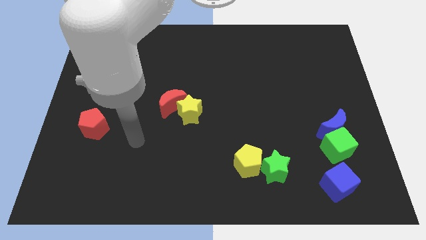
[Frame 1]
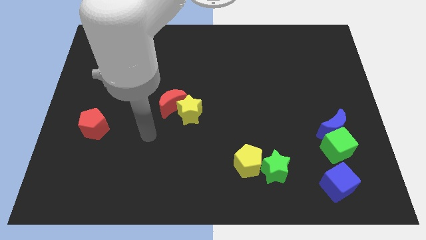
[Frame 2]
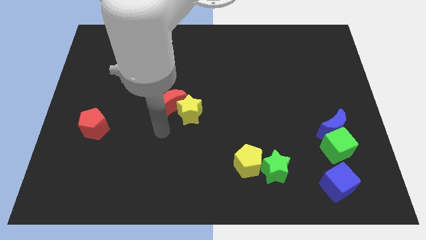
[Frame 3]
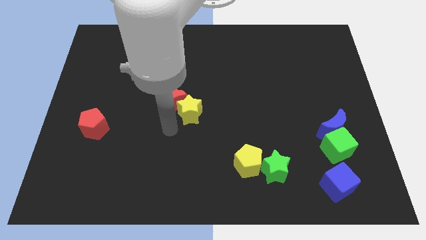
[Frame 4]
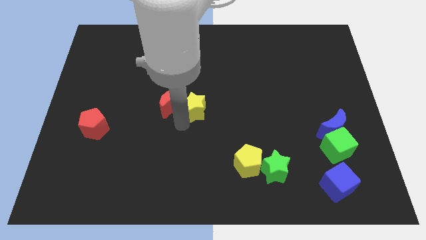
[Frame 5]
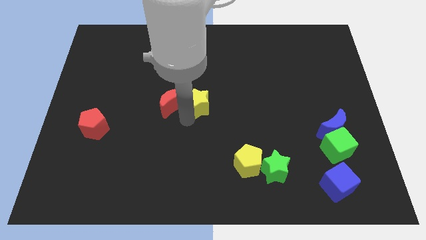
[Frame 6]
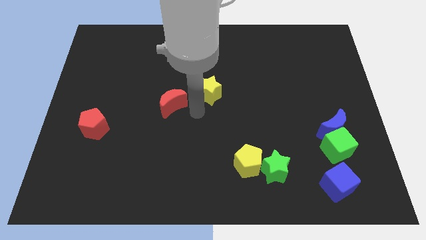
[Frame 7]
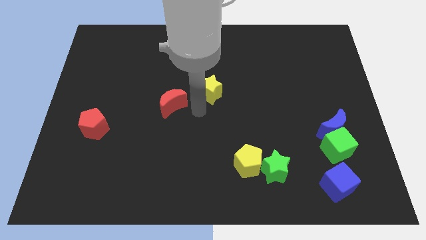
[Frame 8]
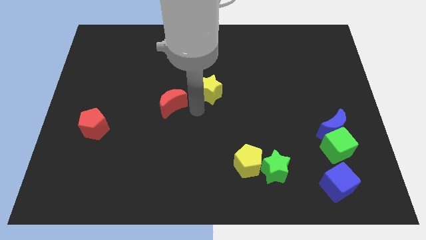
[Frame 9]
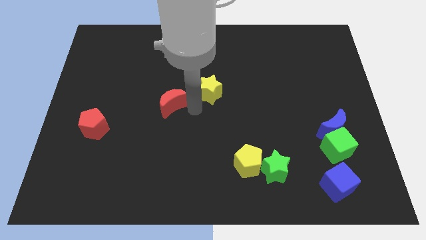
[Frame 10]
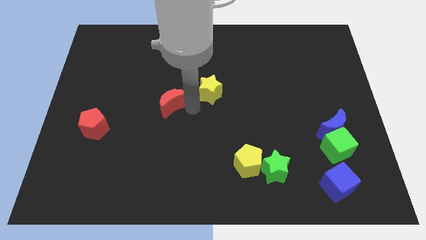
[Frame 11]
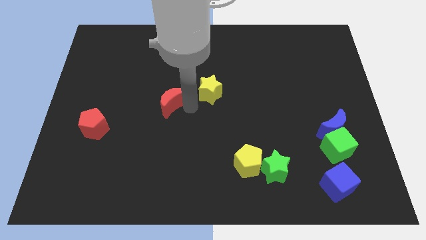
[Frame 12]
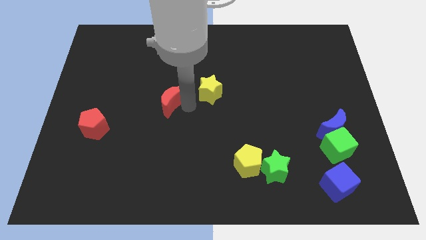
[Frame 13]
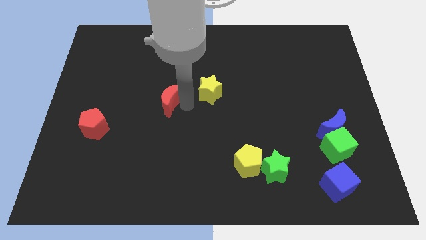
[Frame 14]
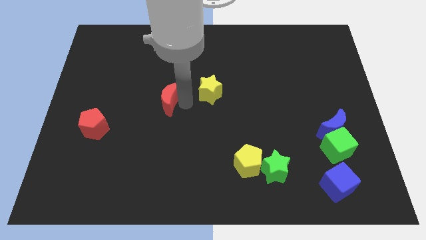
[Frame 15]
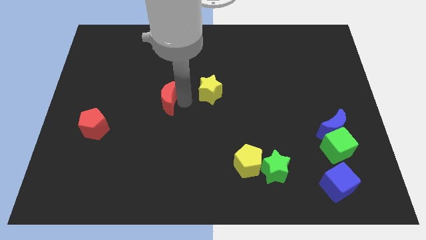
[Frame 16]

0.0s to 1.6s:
pull the red moon apart from the yellow star

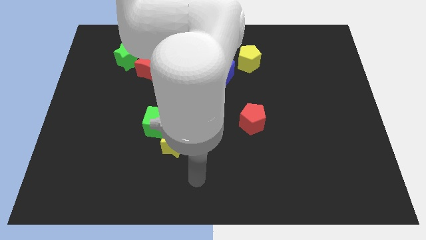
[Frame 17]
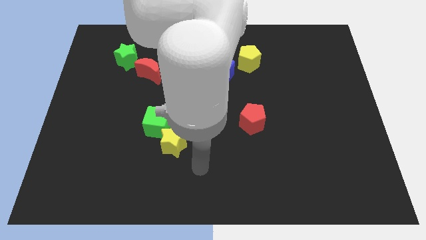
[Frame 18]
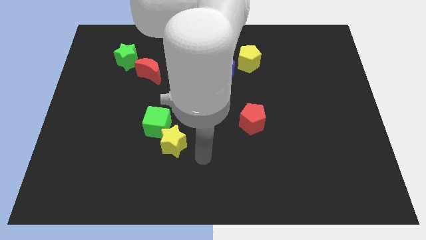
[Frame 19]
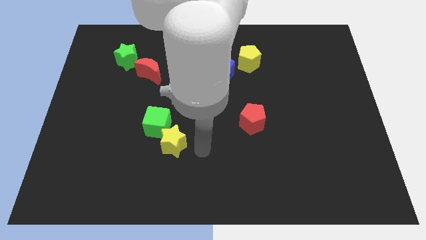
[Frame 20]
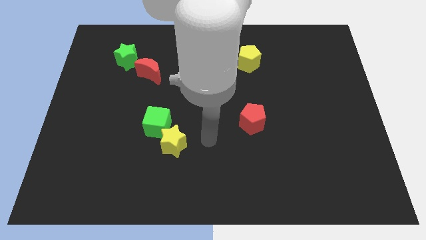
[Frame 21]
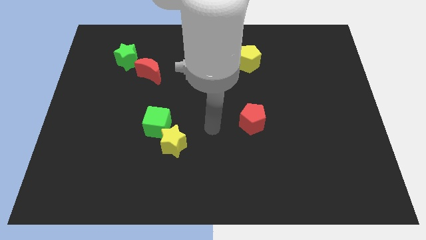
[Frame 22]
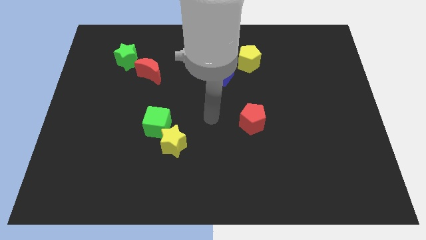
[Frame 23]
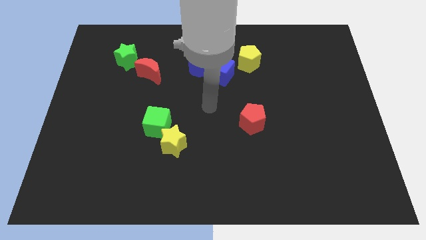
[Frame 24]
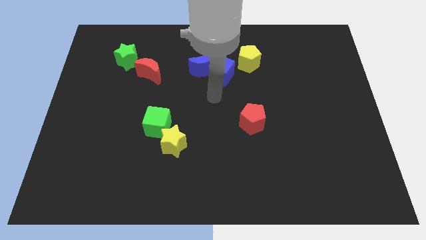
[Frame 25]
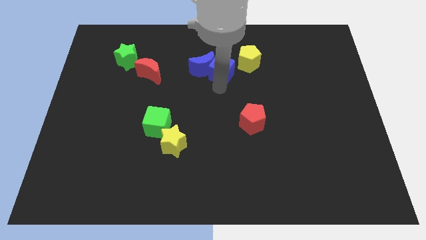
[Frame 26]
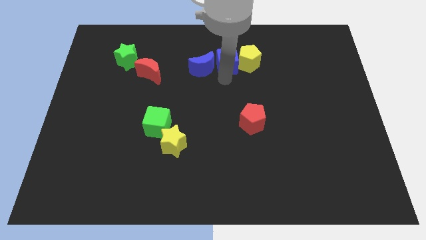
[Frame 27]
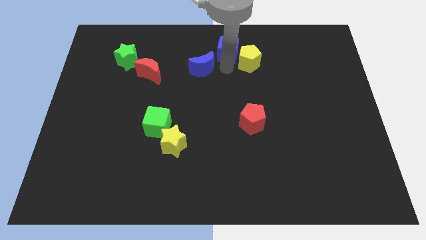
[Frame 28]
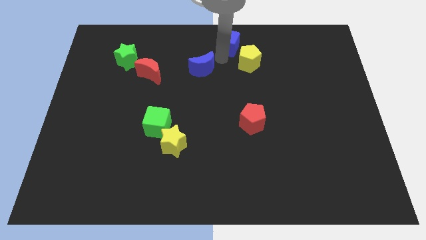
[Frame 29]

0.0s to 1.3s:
move the blue moon away from the blue cube

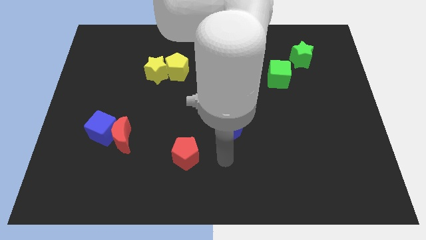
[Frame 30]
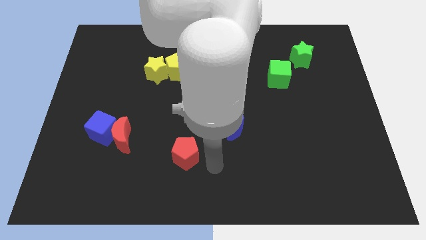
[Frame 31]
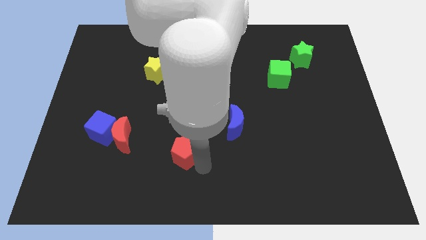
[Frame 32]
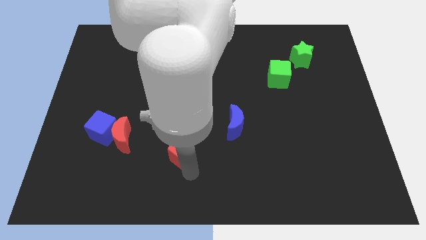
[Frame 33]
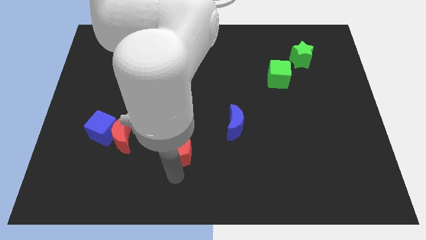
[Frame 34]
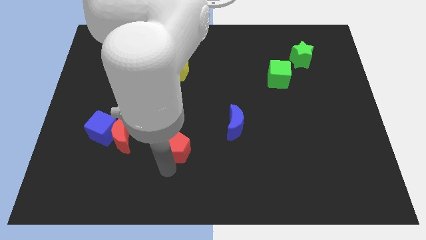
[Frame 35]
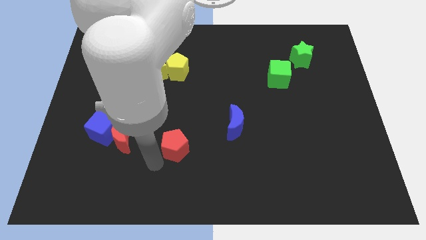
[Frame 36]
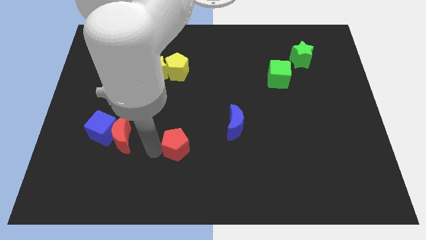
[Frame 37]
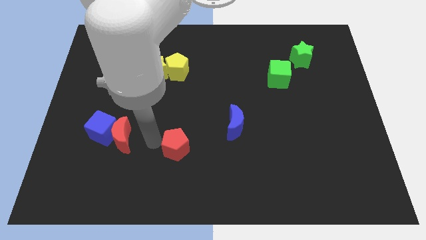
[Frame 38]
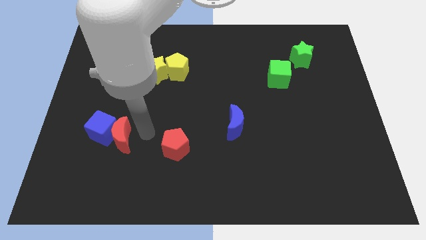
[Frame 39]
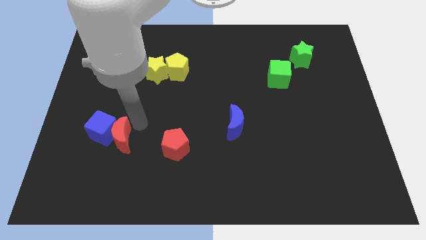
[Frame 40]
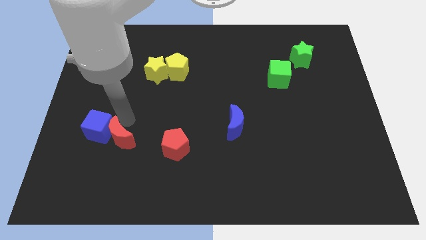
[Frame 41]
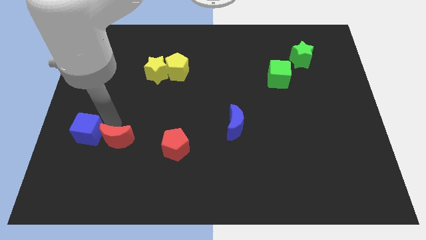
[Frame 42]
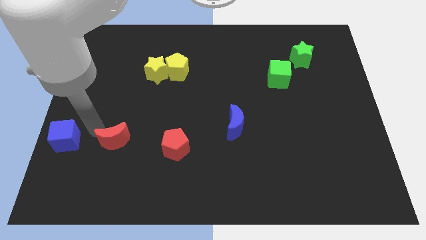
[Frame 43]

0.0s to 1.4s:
move the red moon away from the blue cube

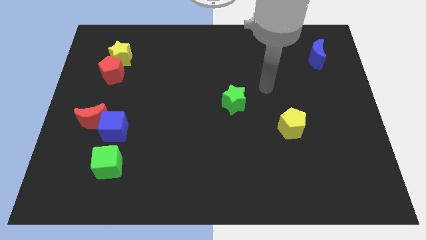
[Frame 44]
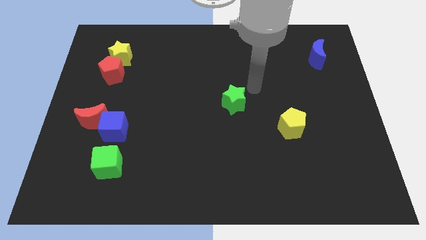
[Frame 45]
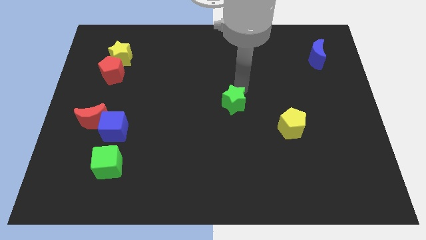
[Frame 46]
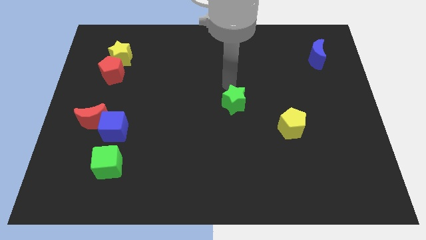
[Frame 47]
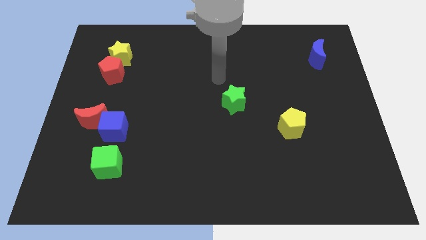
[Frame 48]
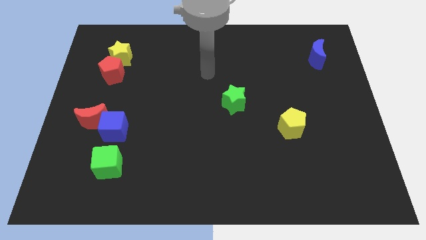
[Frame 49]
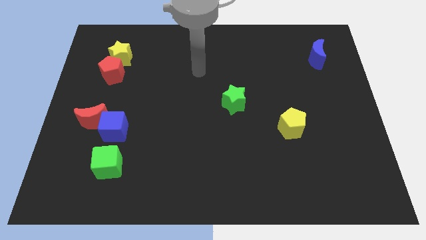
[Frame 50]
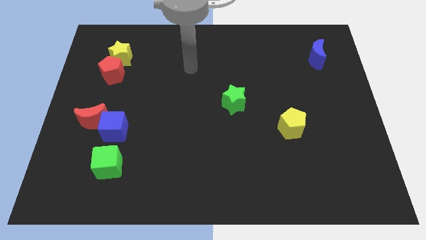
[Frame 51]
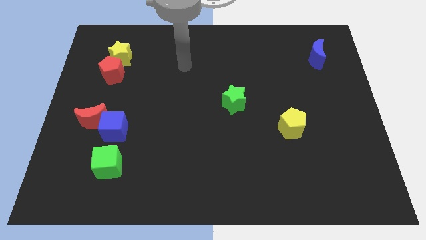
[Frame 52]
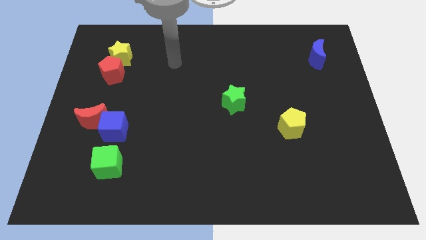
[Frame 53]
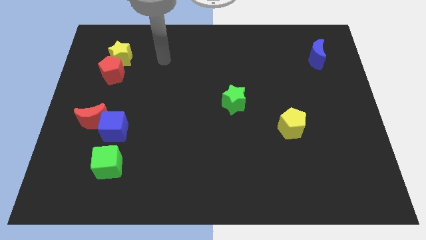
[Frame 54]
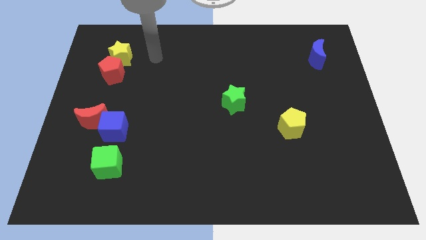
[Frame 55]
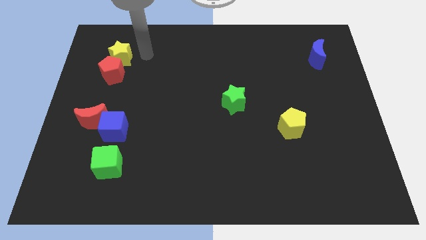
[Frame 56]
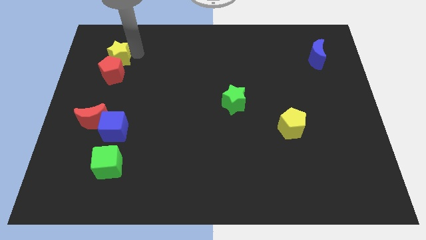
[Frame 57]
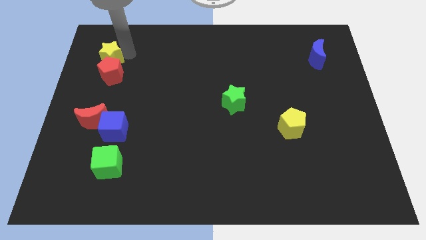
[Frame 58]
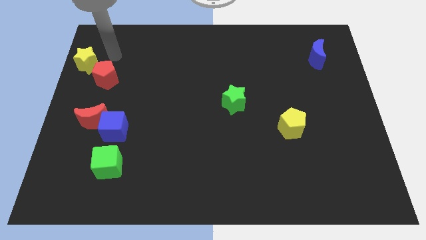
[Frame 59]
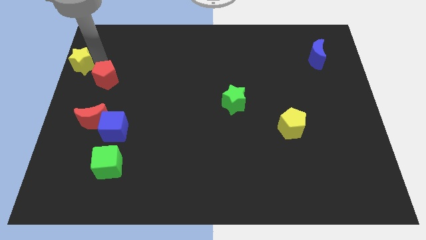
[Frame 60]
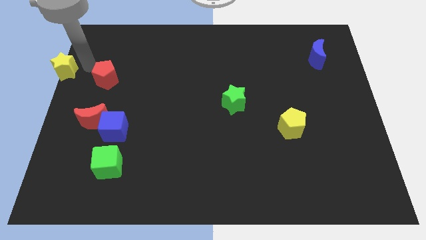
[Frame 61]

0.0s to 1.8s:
separate the red pentagon from the yellow star

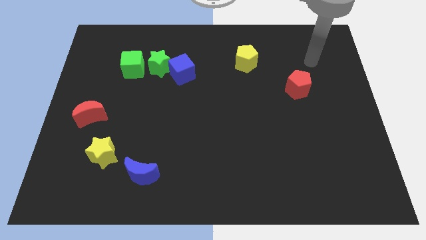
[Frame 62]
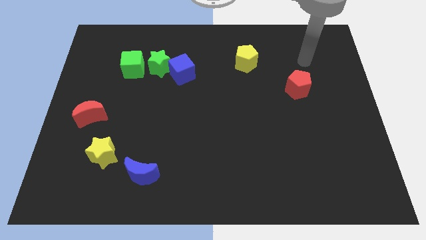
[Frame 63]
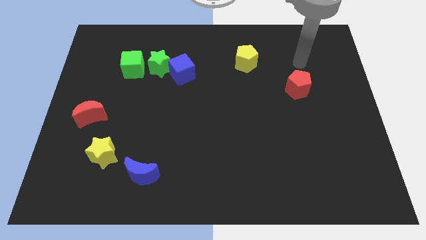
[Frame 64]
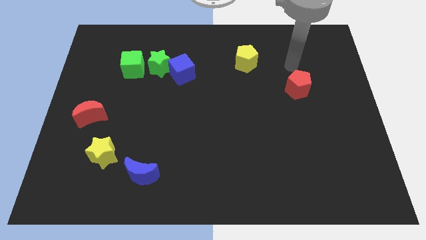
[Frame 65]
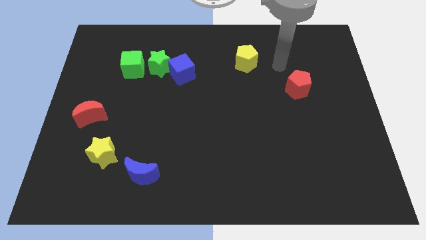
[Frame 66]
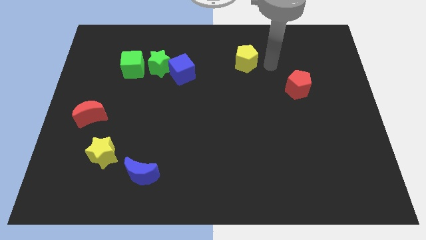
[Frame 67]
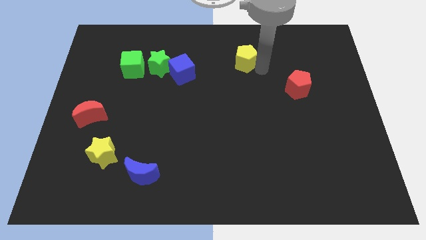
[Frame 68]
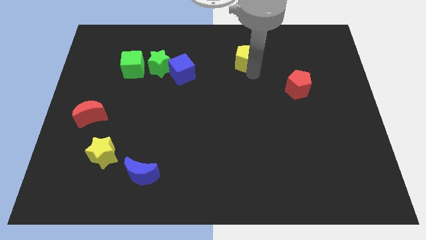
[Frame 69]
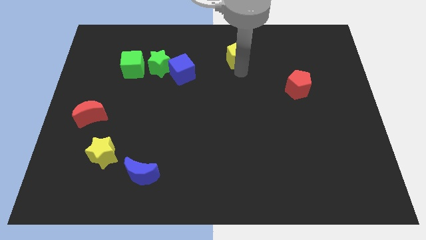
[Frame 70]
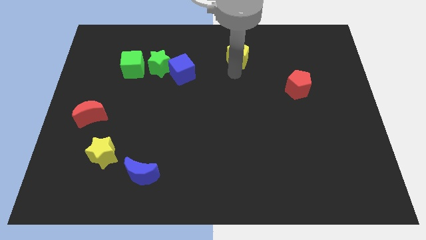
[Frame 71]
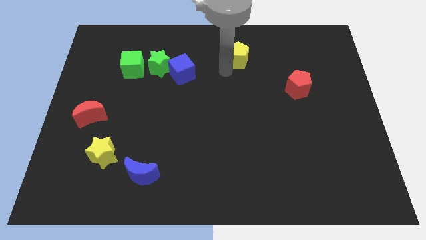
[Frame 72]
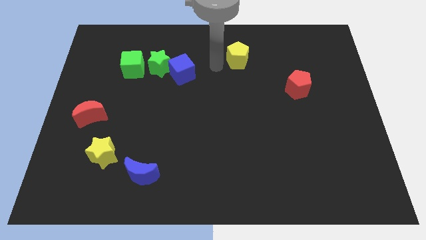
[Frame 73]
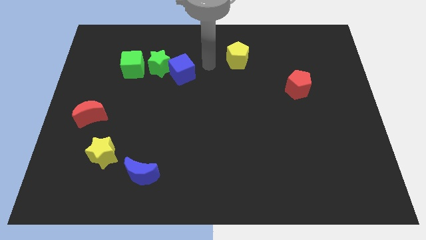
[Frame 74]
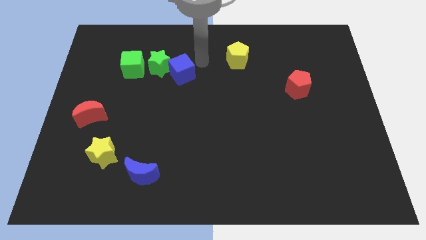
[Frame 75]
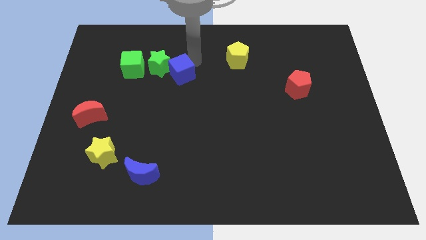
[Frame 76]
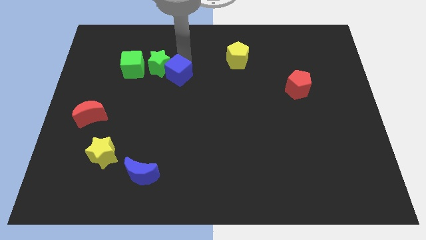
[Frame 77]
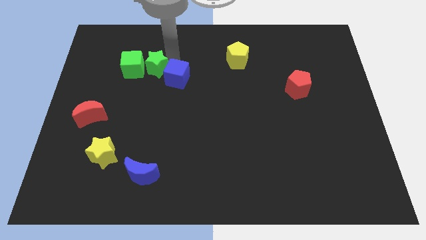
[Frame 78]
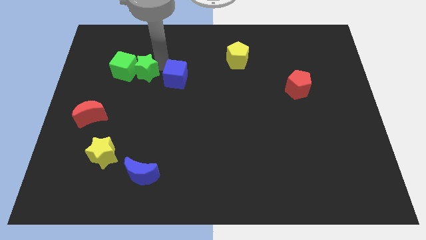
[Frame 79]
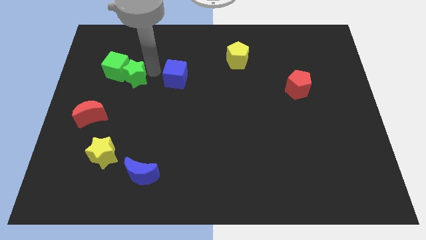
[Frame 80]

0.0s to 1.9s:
separate the blue cube from the green star

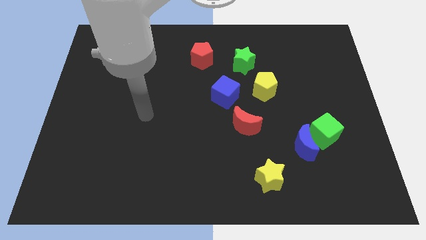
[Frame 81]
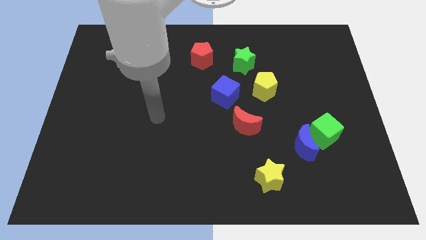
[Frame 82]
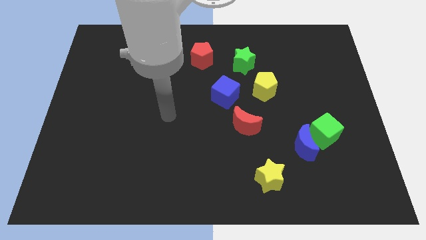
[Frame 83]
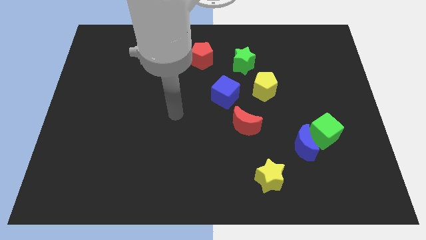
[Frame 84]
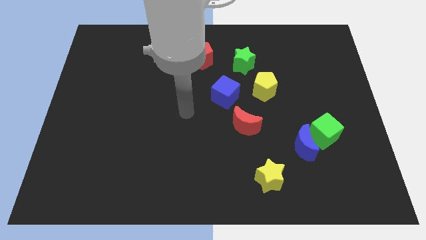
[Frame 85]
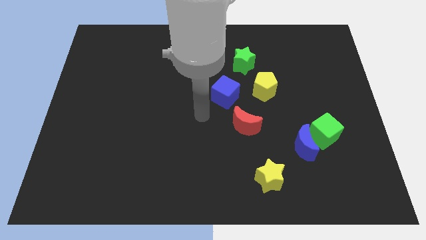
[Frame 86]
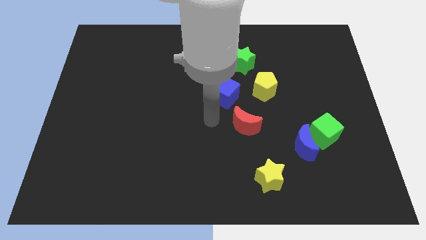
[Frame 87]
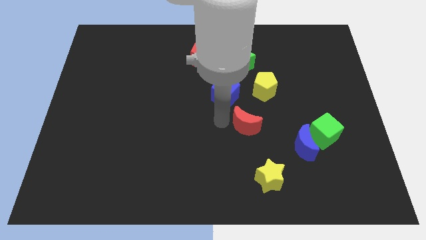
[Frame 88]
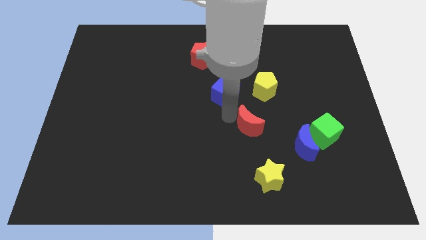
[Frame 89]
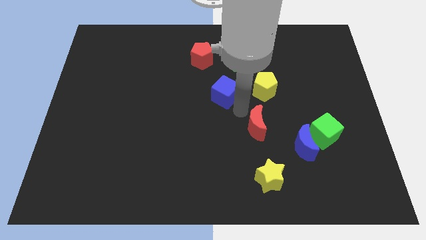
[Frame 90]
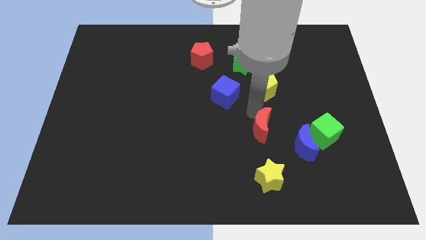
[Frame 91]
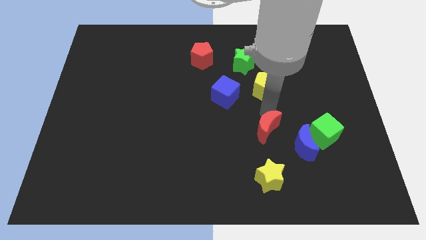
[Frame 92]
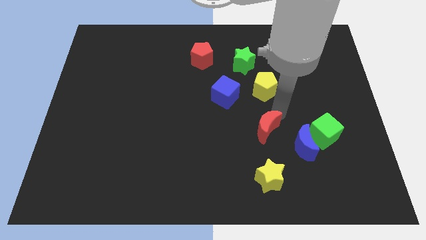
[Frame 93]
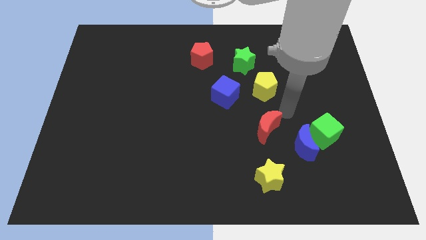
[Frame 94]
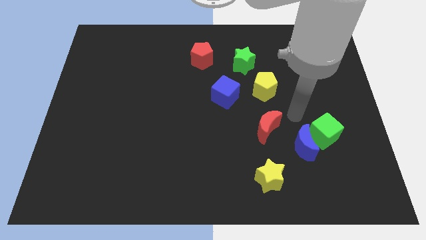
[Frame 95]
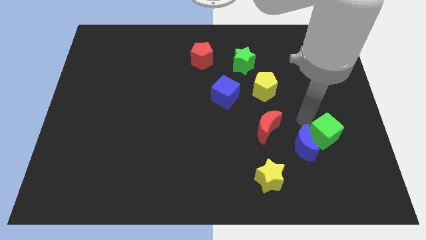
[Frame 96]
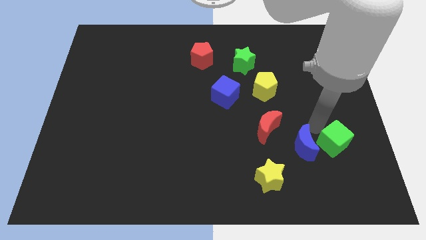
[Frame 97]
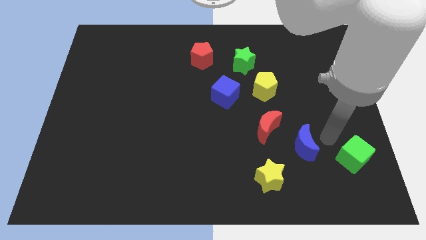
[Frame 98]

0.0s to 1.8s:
move the blue moon away from the green cube
